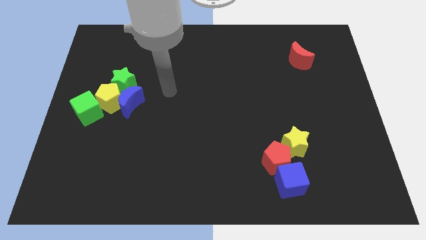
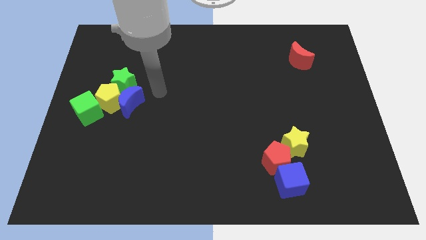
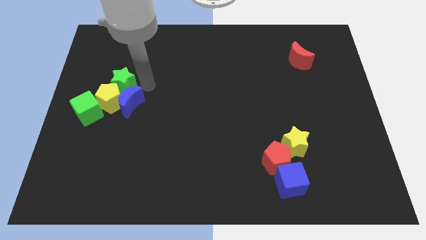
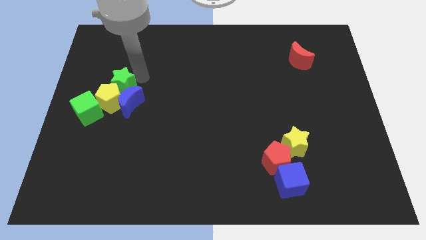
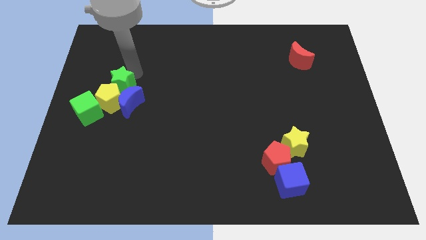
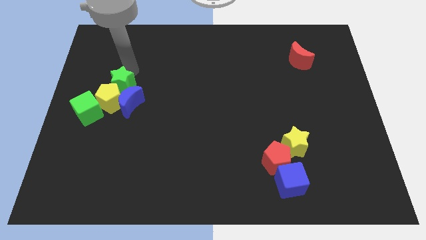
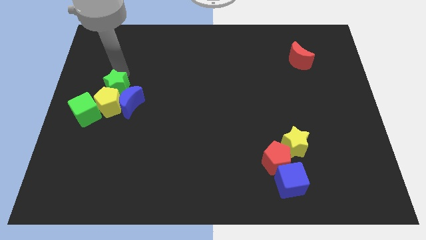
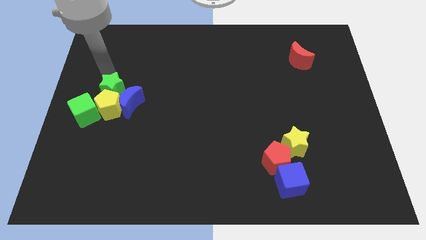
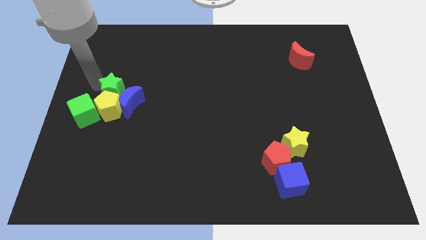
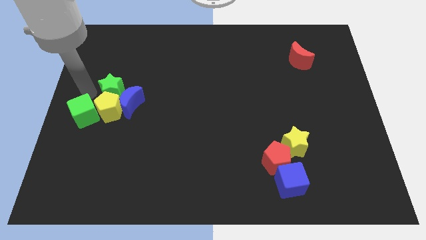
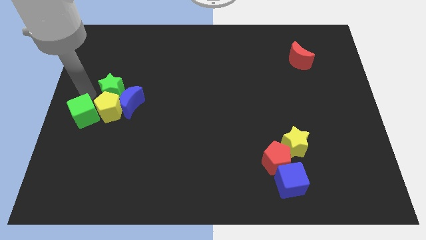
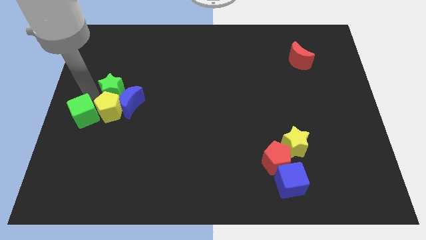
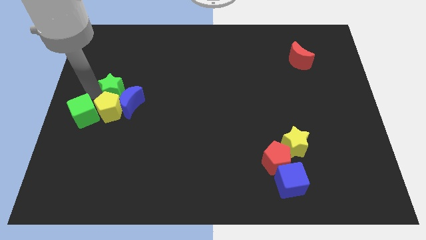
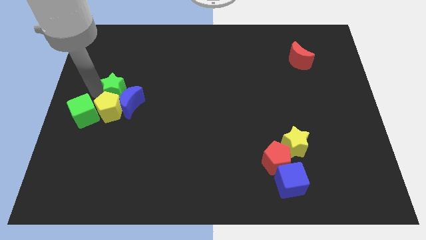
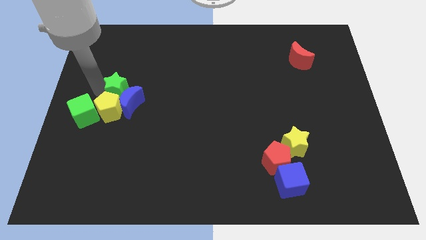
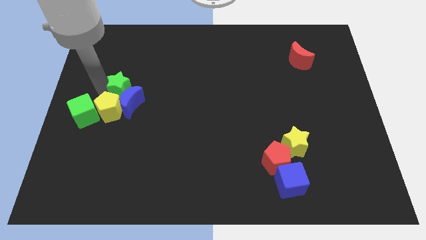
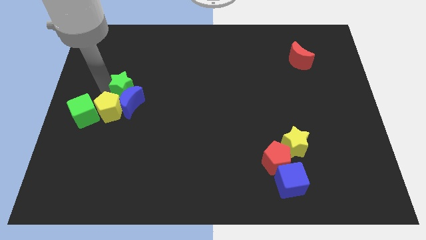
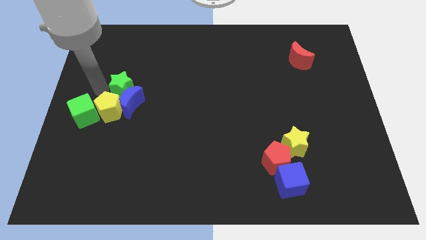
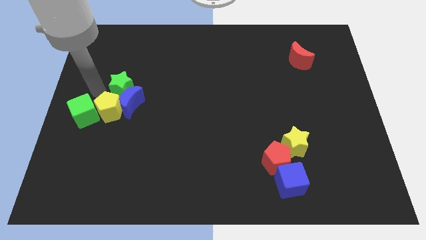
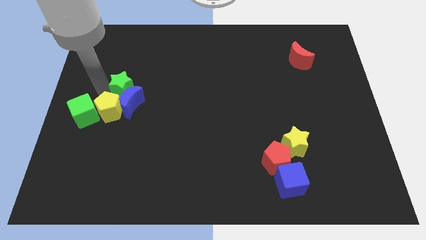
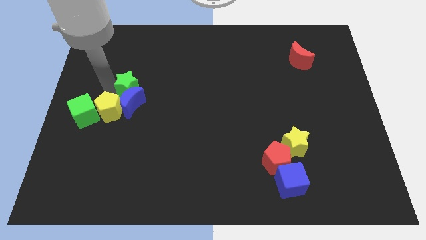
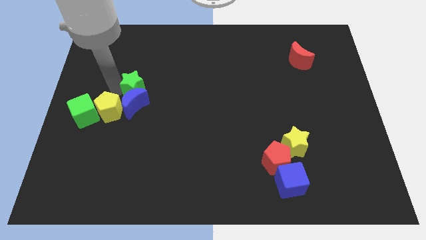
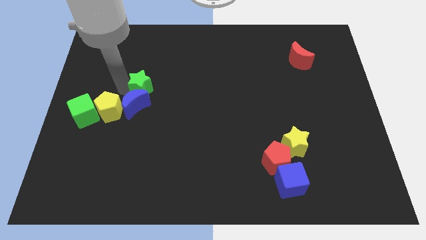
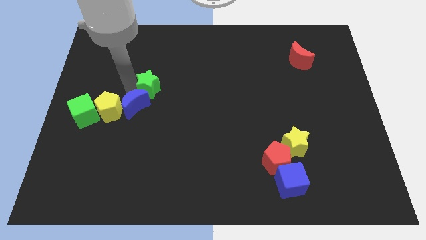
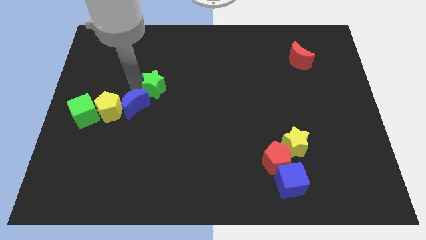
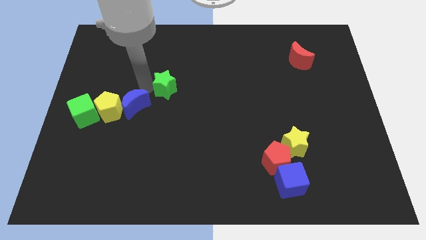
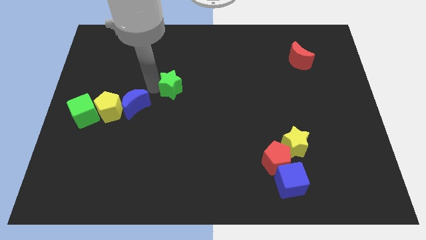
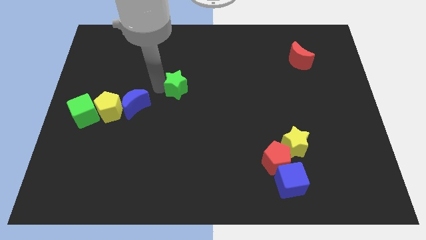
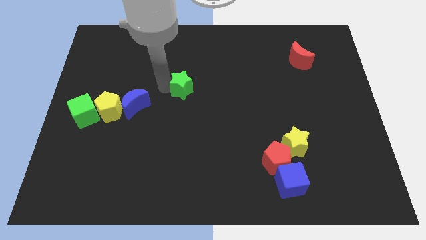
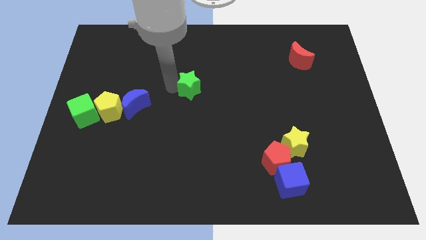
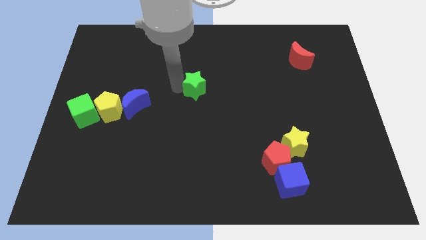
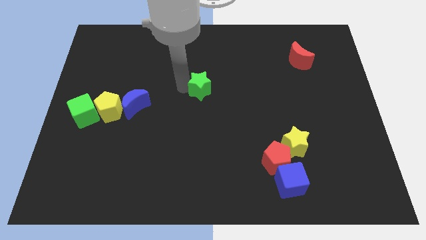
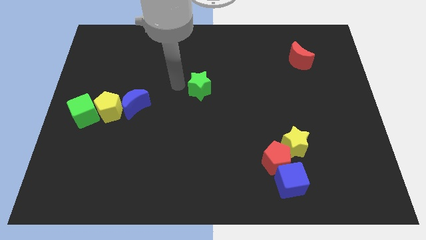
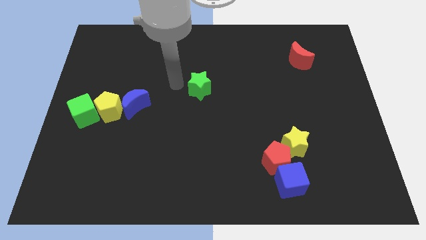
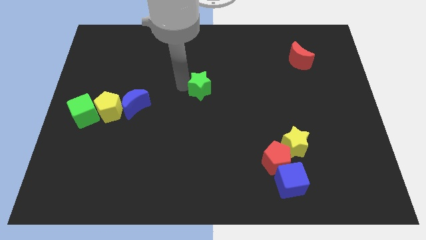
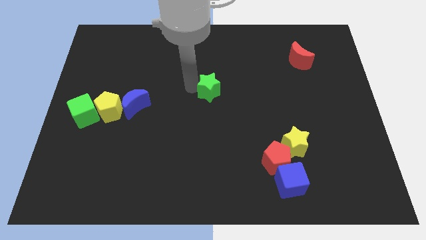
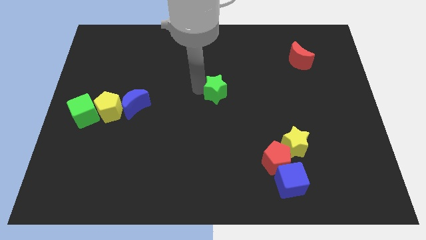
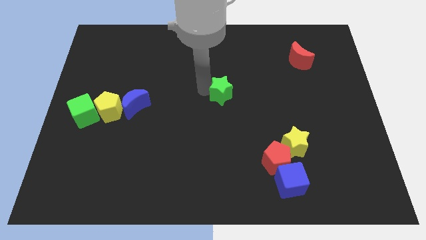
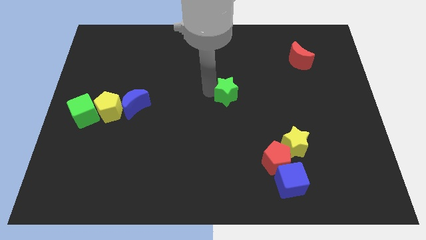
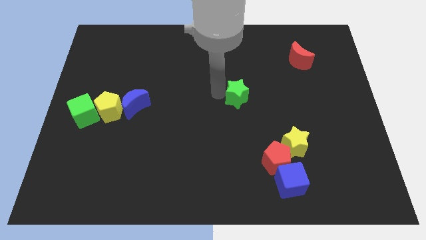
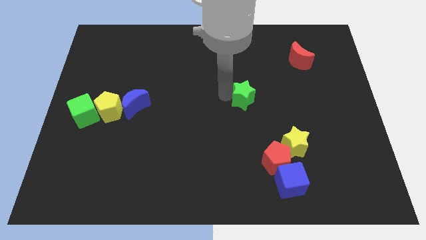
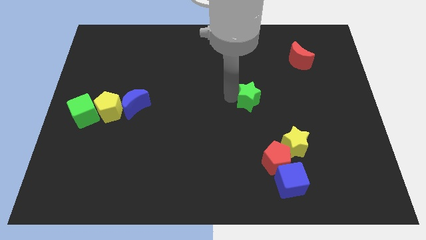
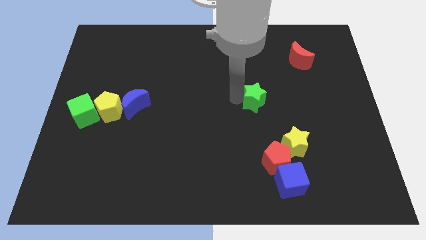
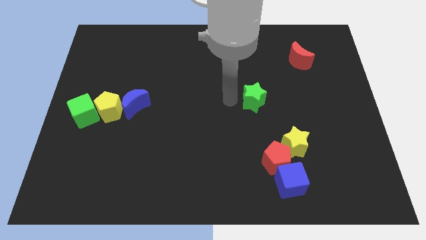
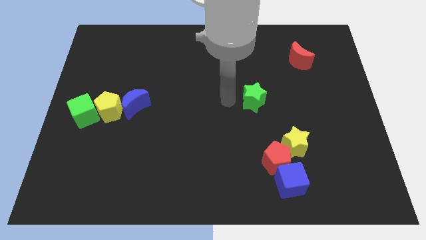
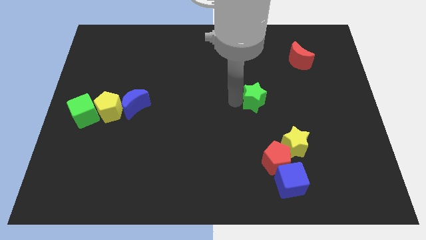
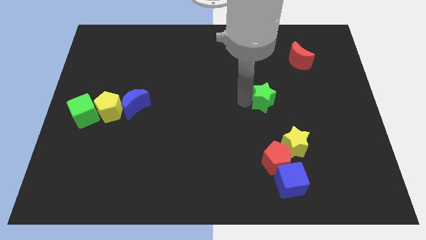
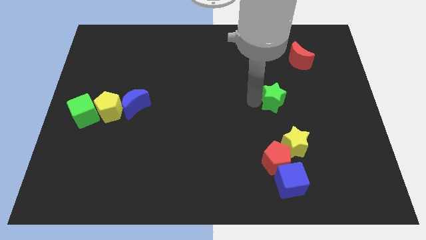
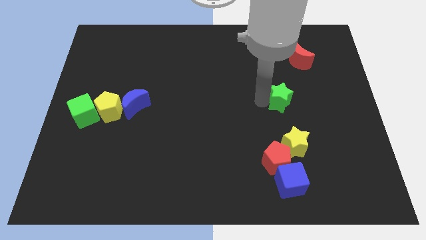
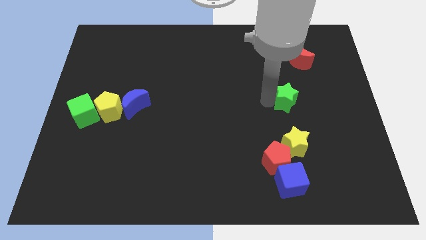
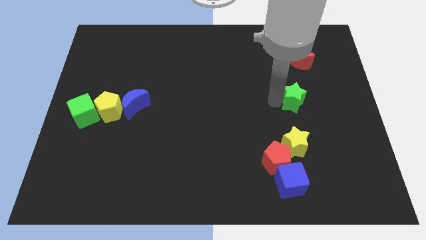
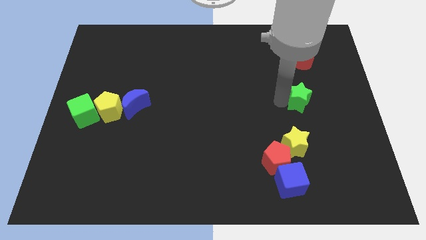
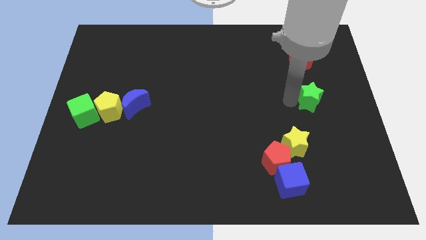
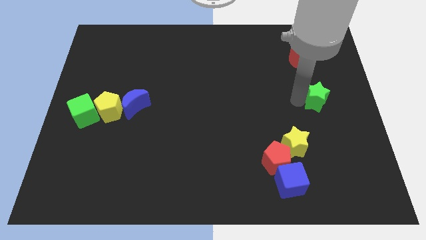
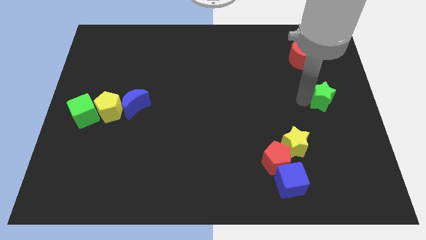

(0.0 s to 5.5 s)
push the green star to the right side
